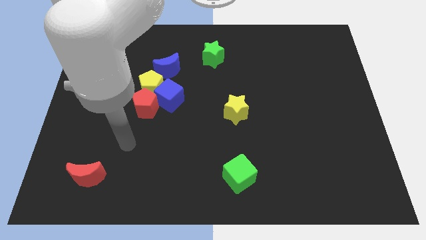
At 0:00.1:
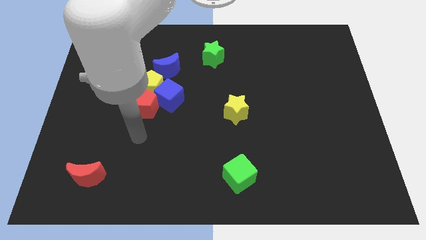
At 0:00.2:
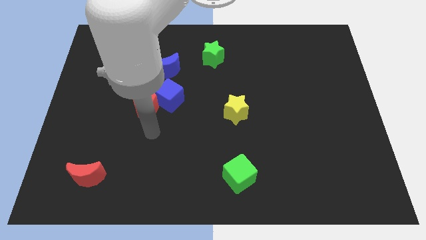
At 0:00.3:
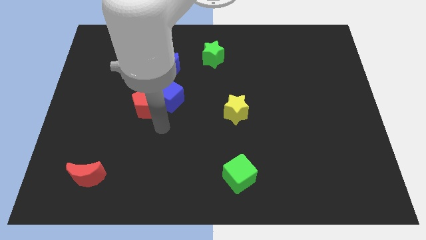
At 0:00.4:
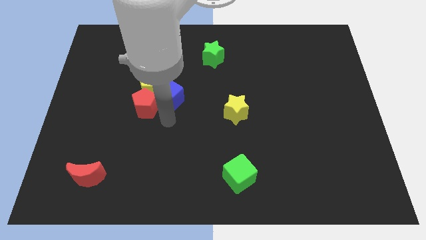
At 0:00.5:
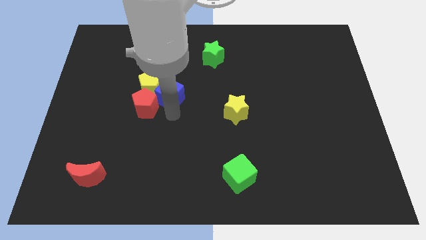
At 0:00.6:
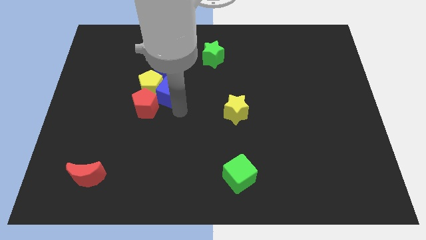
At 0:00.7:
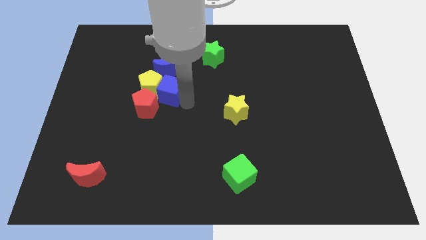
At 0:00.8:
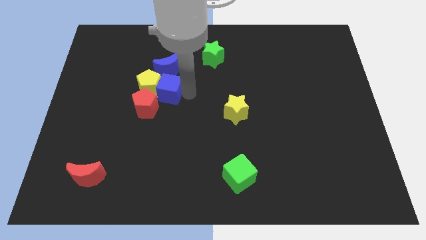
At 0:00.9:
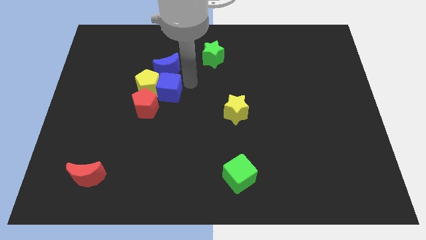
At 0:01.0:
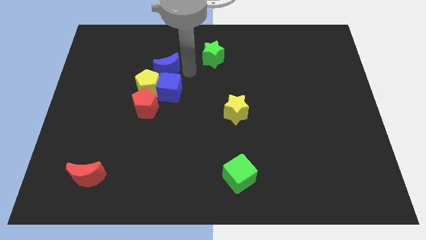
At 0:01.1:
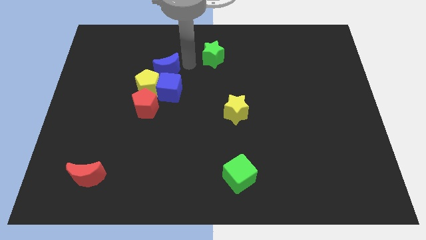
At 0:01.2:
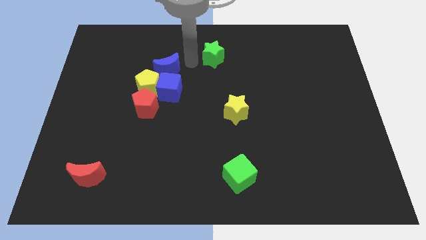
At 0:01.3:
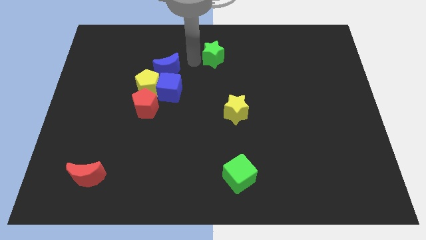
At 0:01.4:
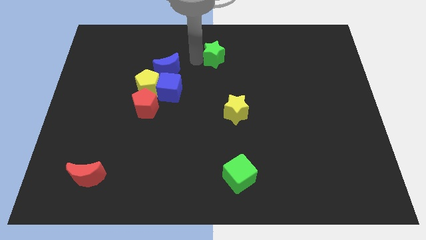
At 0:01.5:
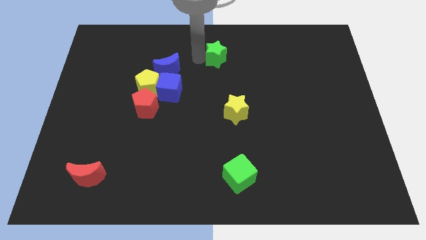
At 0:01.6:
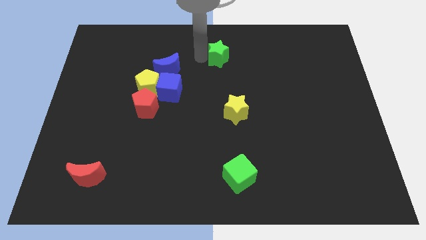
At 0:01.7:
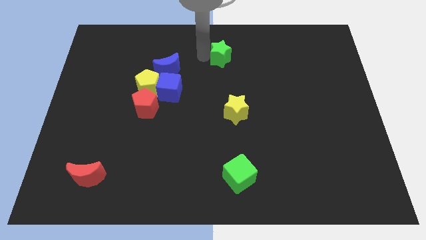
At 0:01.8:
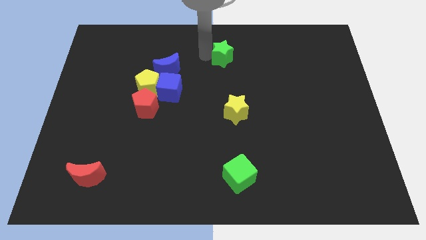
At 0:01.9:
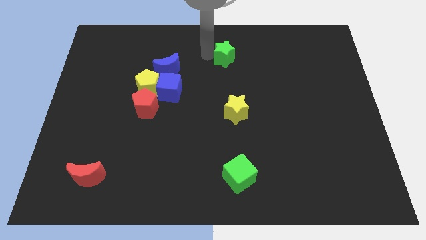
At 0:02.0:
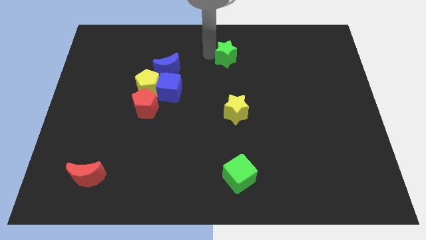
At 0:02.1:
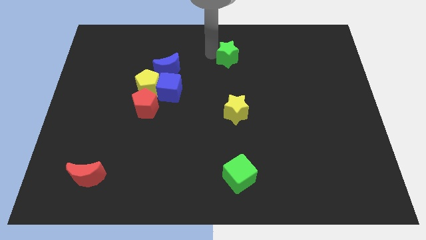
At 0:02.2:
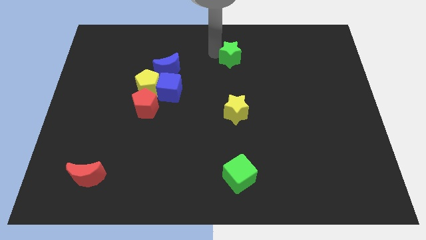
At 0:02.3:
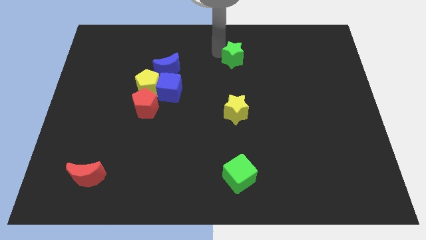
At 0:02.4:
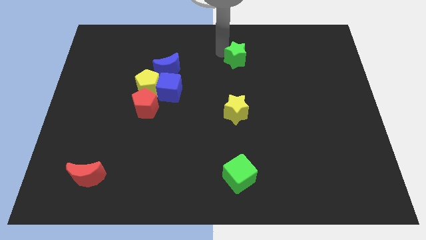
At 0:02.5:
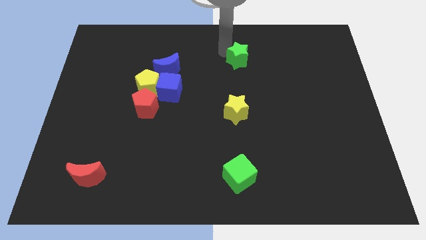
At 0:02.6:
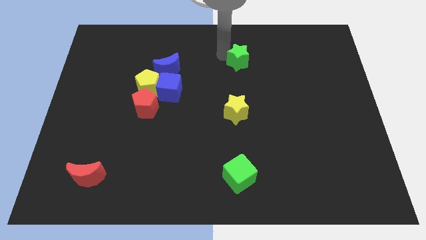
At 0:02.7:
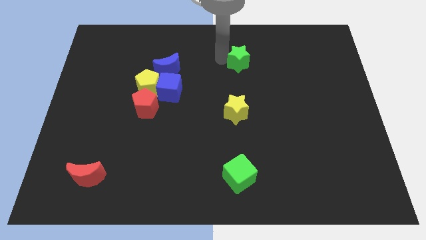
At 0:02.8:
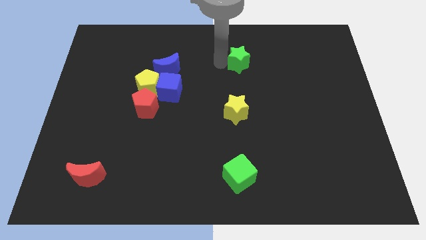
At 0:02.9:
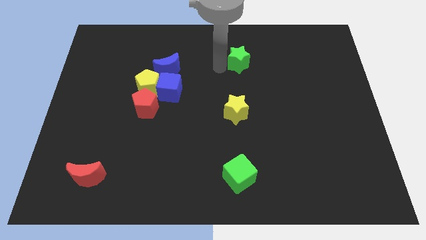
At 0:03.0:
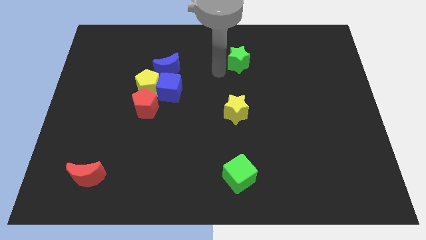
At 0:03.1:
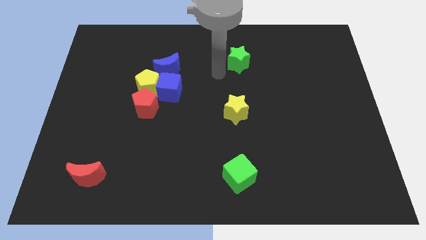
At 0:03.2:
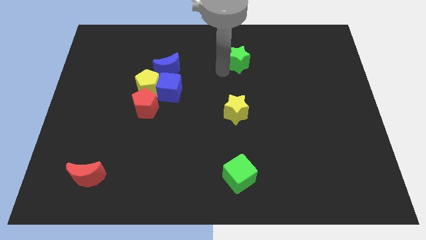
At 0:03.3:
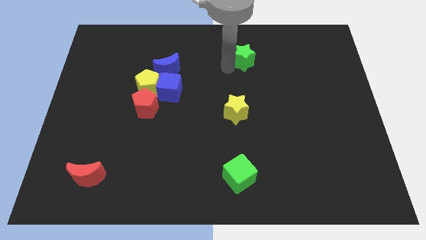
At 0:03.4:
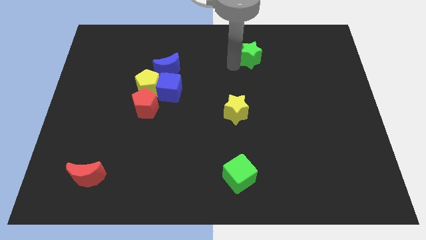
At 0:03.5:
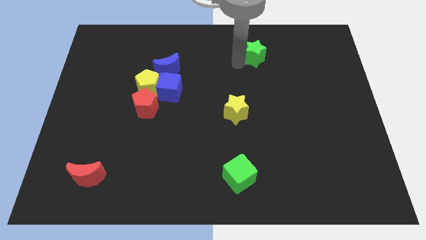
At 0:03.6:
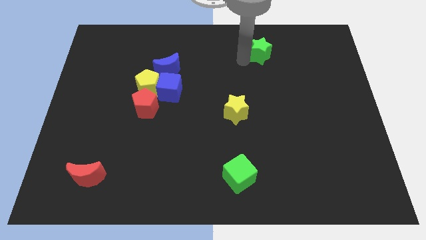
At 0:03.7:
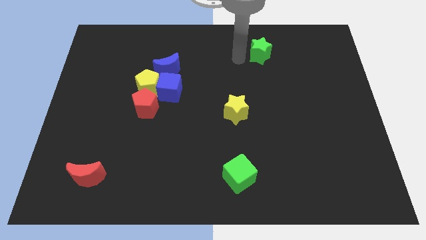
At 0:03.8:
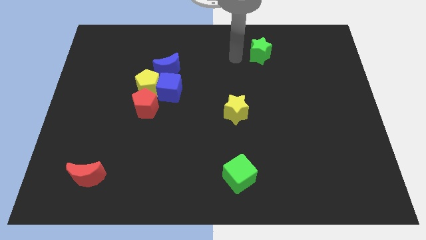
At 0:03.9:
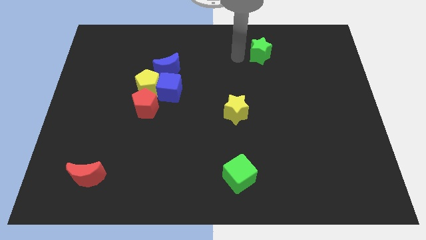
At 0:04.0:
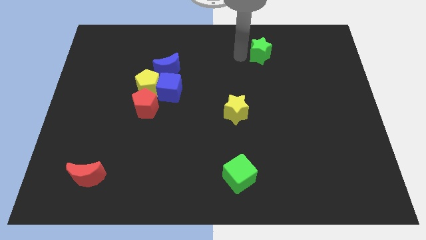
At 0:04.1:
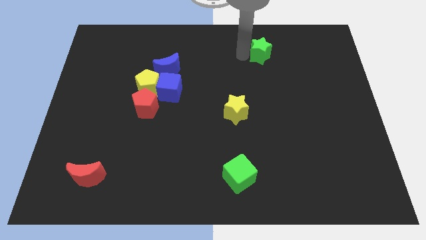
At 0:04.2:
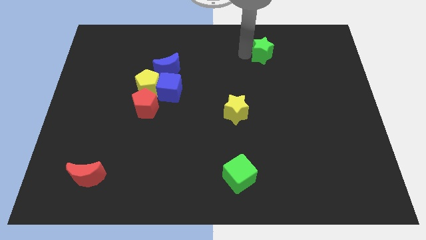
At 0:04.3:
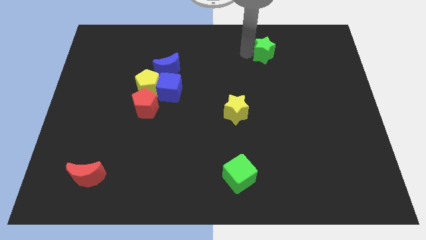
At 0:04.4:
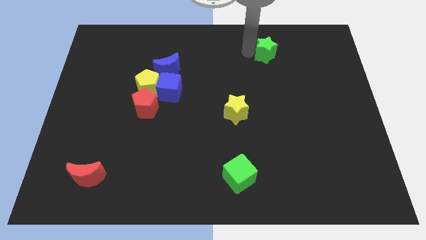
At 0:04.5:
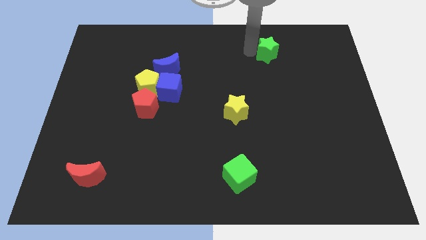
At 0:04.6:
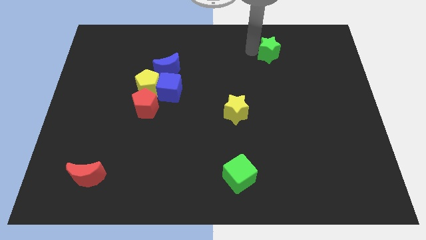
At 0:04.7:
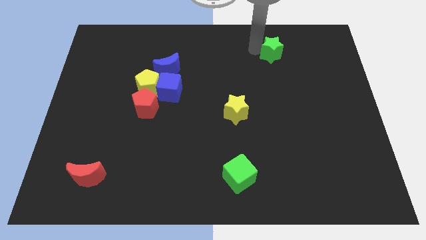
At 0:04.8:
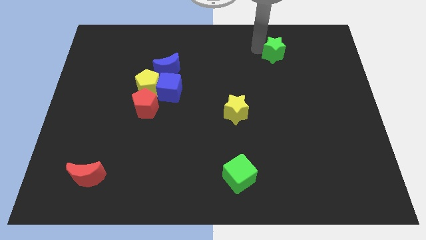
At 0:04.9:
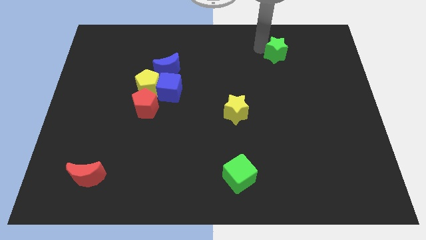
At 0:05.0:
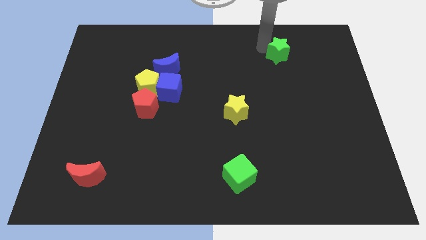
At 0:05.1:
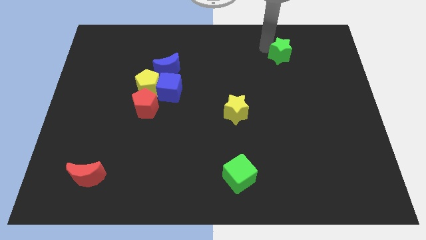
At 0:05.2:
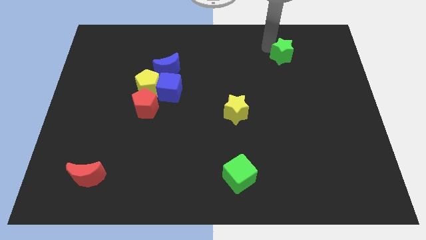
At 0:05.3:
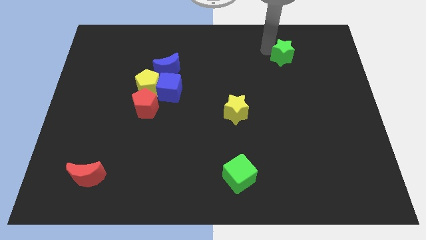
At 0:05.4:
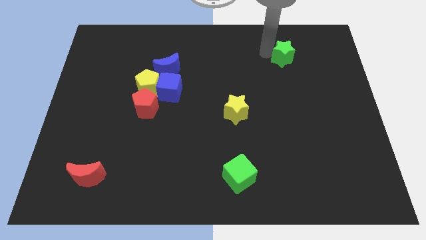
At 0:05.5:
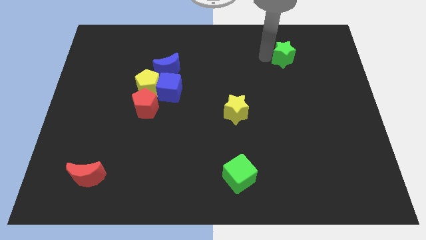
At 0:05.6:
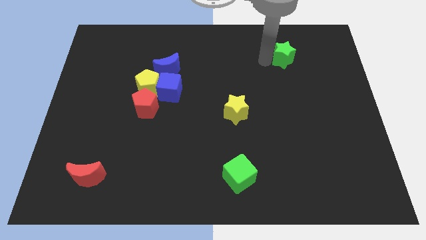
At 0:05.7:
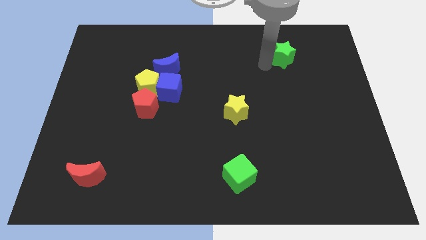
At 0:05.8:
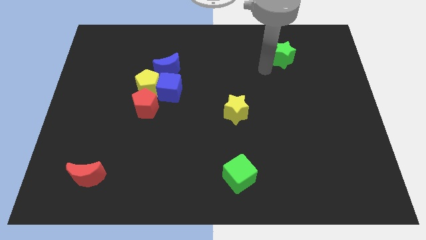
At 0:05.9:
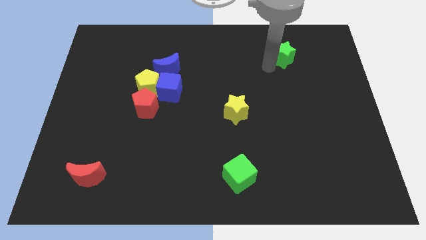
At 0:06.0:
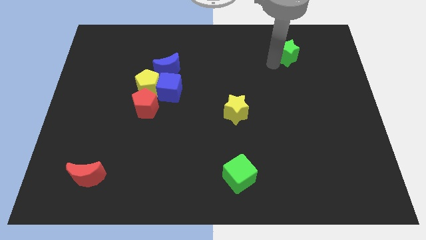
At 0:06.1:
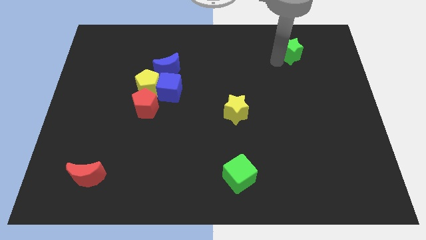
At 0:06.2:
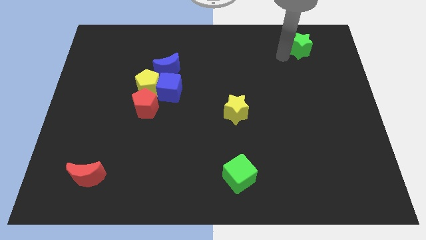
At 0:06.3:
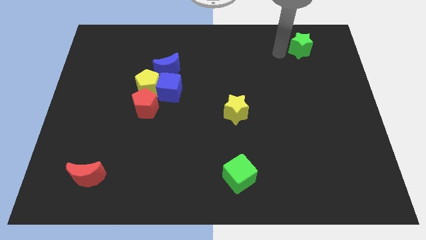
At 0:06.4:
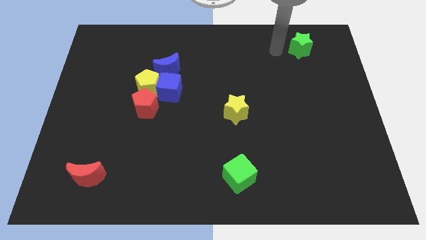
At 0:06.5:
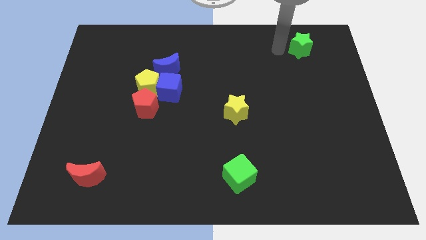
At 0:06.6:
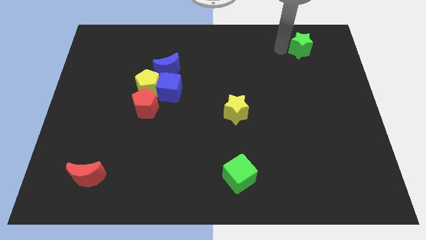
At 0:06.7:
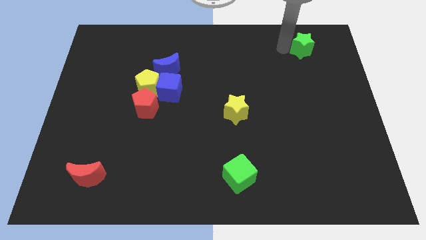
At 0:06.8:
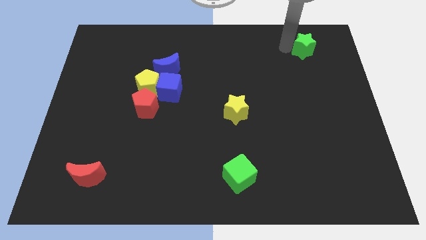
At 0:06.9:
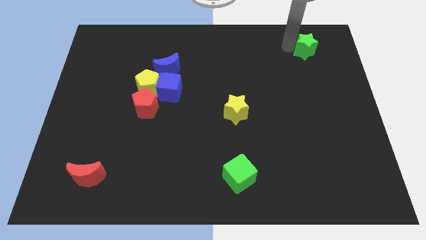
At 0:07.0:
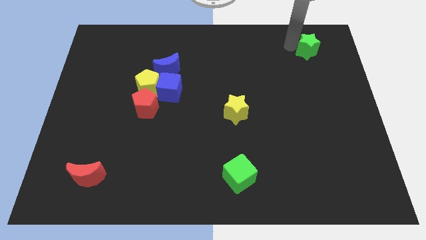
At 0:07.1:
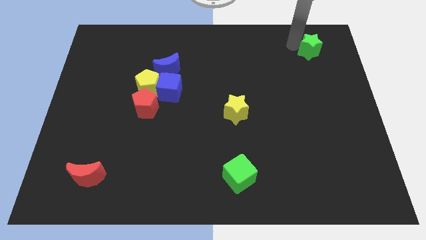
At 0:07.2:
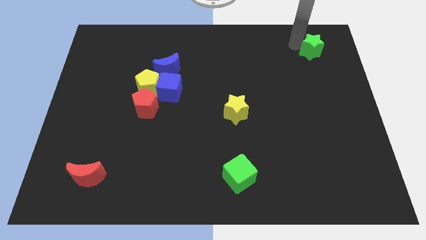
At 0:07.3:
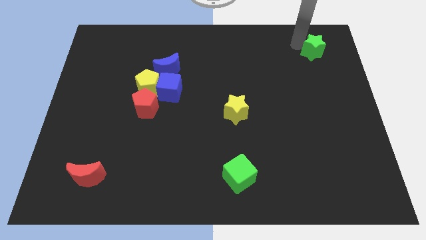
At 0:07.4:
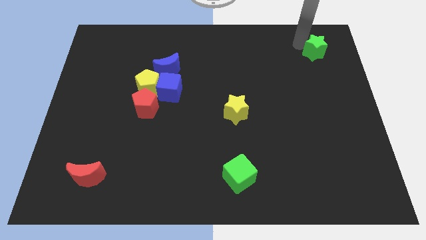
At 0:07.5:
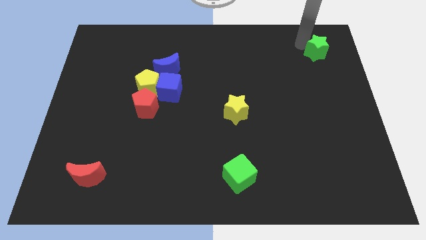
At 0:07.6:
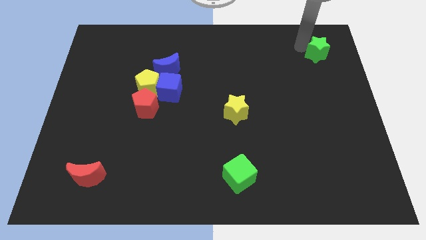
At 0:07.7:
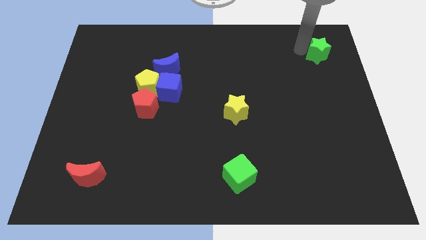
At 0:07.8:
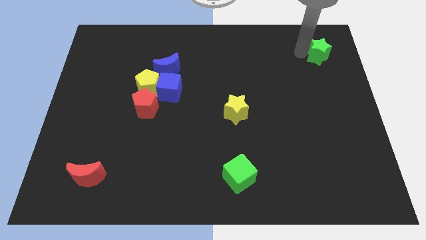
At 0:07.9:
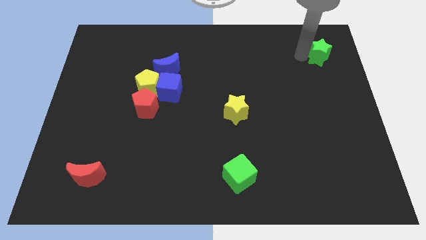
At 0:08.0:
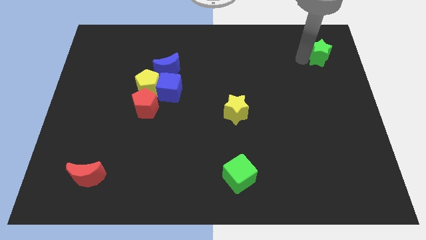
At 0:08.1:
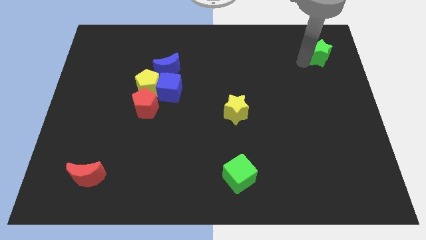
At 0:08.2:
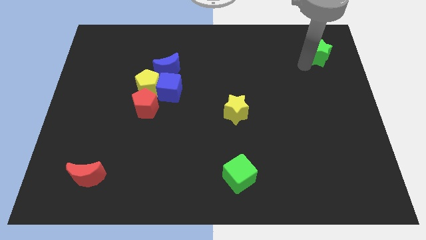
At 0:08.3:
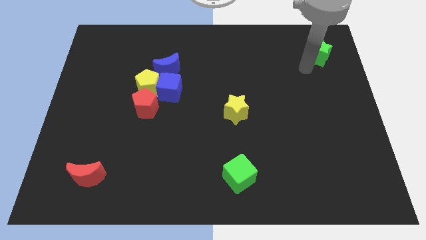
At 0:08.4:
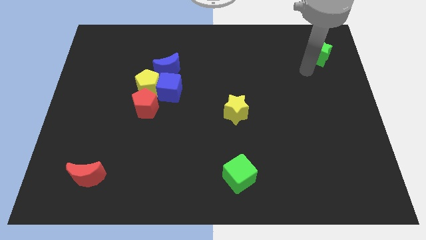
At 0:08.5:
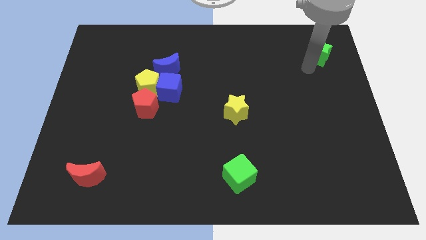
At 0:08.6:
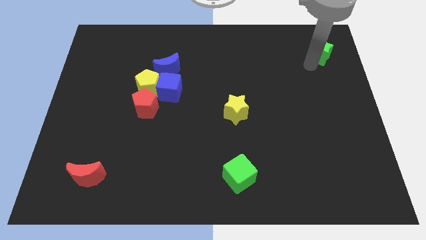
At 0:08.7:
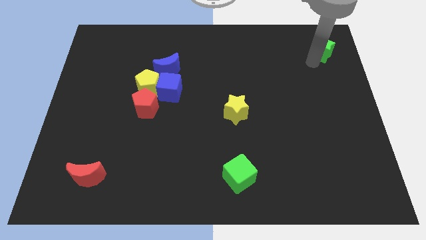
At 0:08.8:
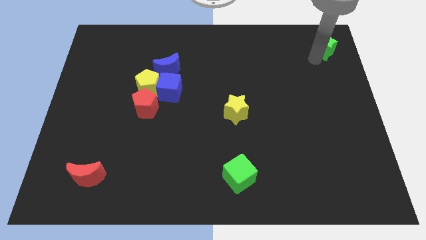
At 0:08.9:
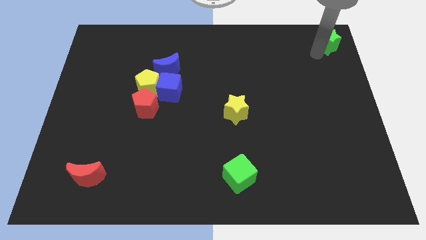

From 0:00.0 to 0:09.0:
push the green star to the top right corner
